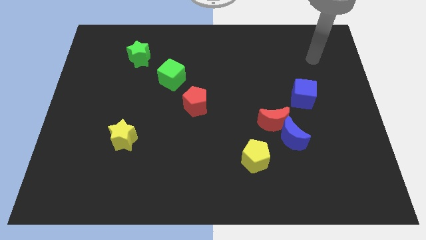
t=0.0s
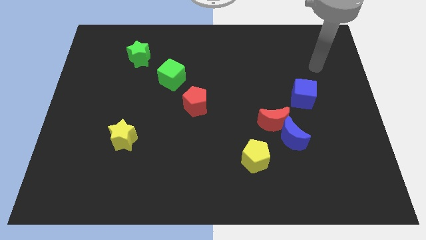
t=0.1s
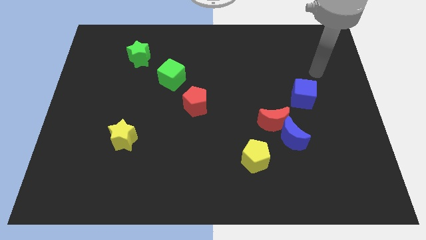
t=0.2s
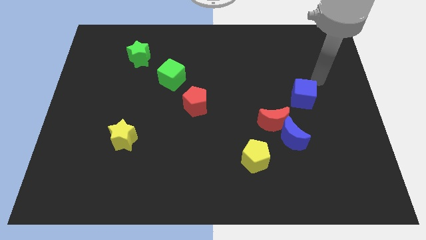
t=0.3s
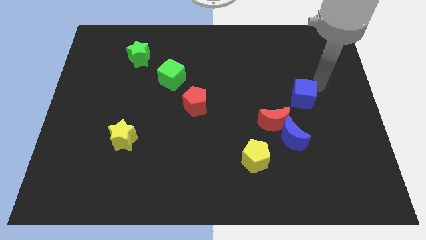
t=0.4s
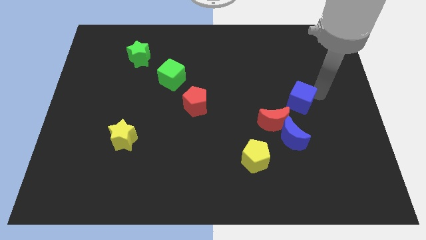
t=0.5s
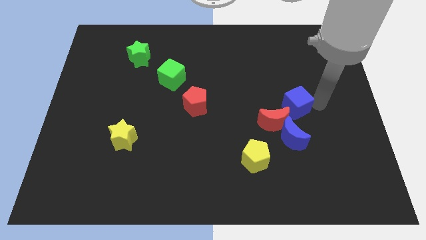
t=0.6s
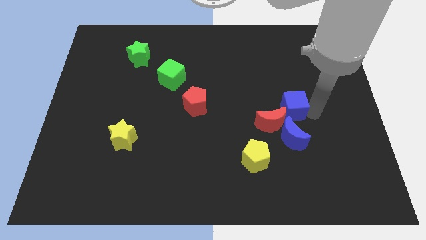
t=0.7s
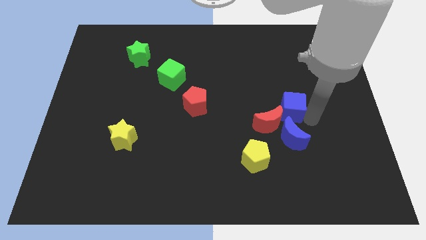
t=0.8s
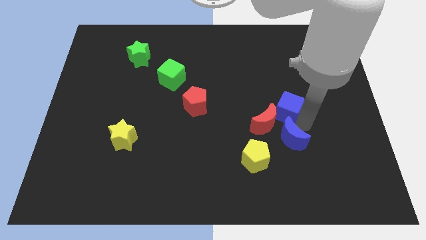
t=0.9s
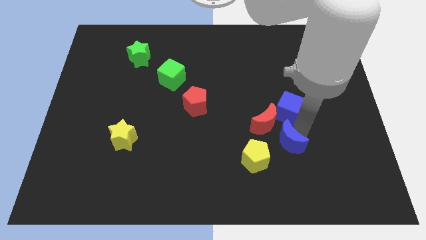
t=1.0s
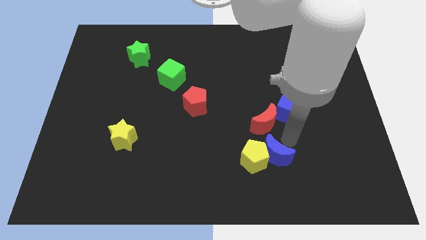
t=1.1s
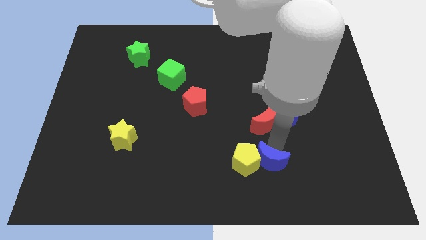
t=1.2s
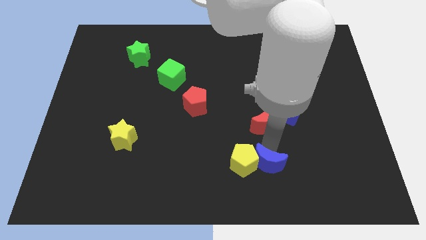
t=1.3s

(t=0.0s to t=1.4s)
move the red moon away from the blue moon

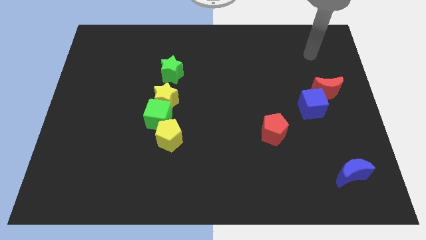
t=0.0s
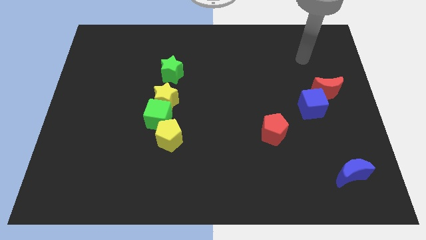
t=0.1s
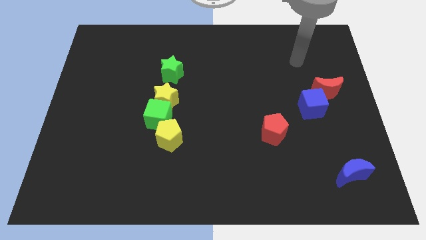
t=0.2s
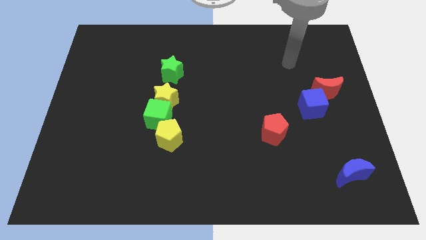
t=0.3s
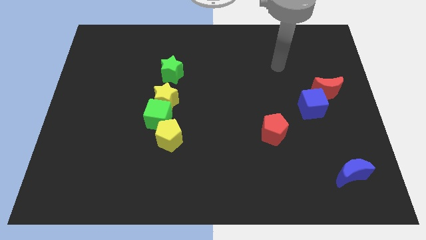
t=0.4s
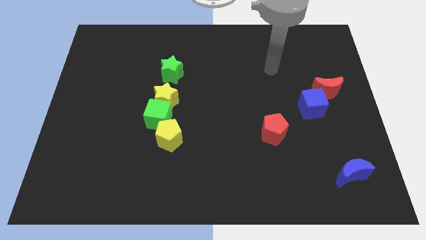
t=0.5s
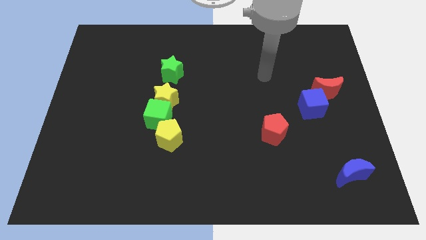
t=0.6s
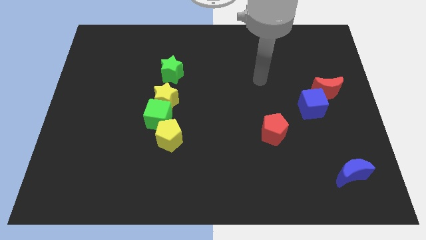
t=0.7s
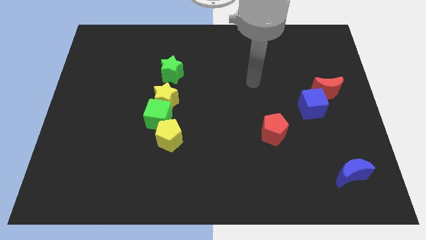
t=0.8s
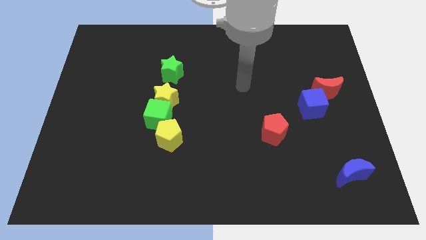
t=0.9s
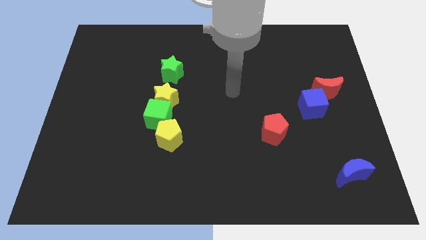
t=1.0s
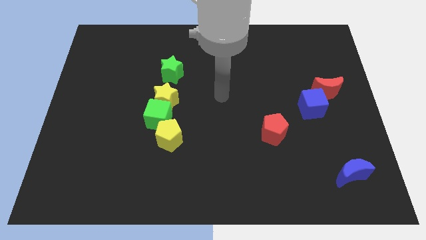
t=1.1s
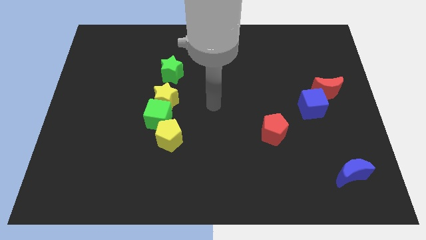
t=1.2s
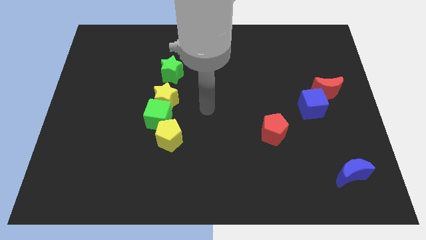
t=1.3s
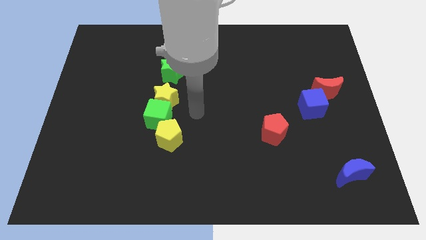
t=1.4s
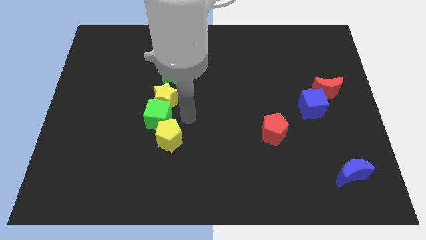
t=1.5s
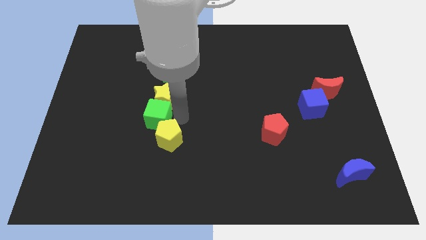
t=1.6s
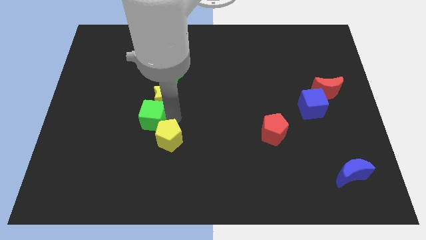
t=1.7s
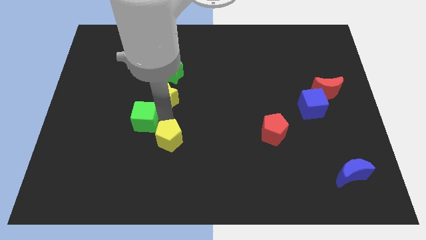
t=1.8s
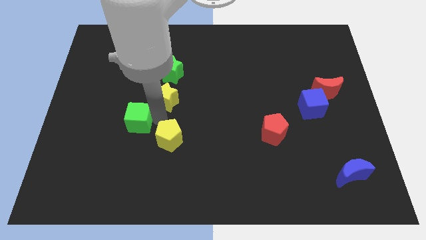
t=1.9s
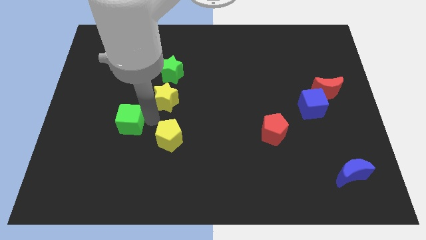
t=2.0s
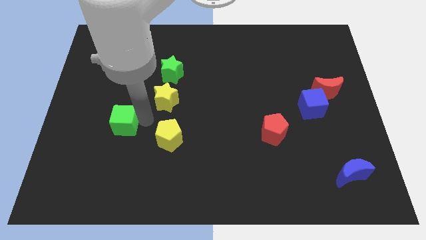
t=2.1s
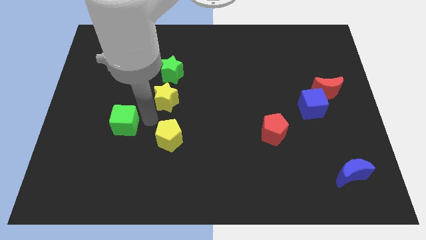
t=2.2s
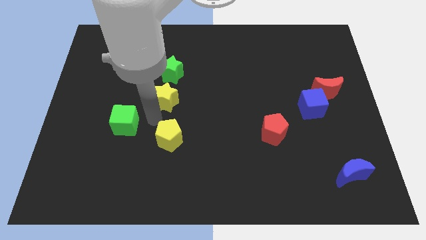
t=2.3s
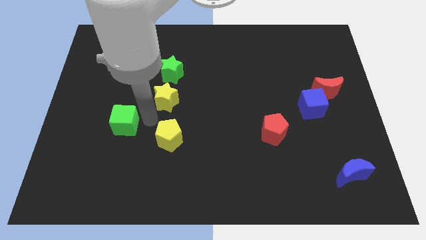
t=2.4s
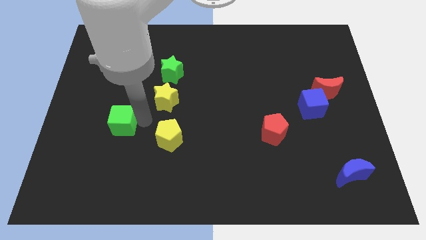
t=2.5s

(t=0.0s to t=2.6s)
move the green cube away from the yellow star and yellow pentagon

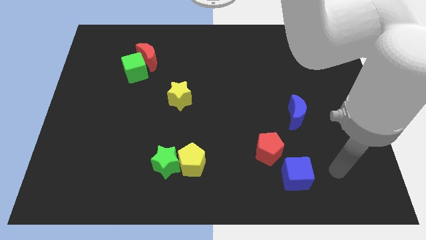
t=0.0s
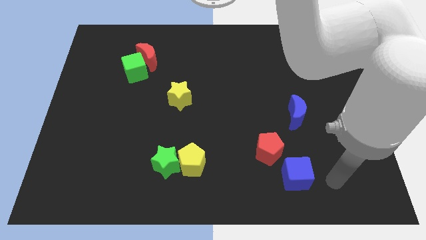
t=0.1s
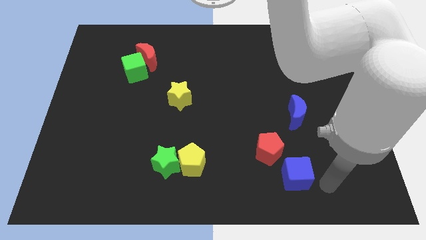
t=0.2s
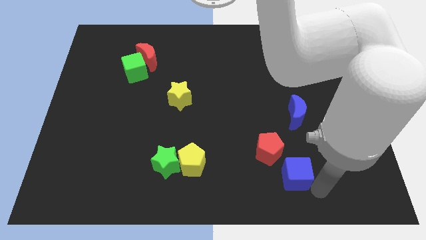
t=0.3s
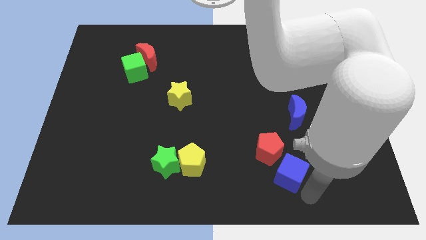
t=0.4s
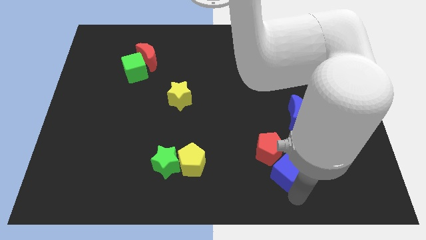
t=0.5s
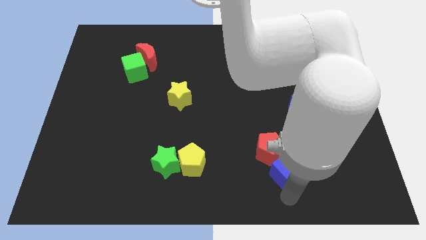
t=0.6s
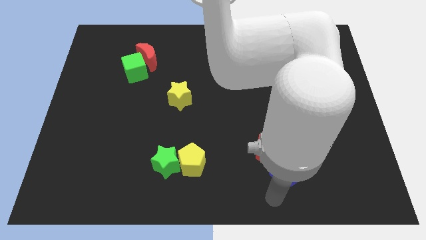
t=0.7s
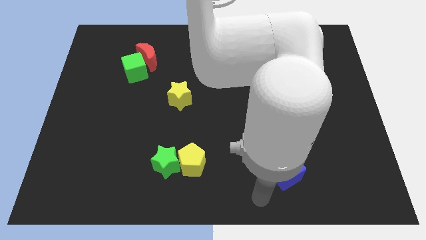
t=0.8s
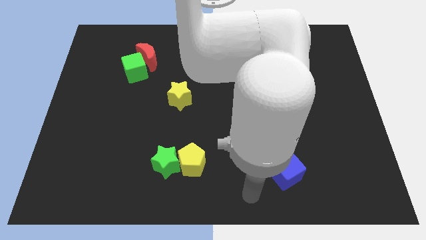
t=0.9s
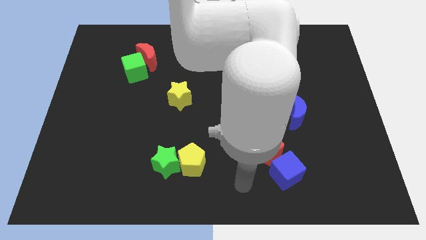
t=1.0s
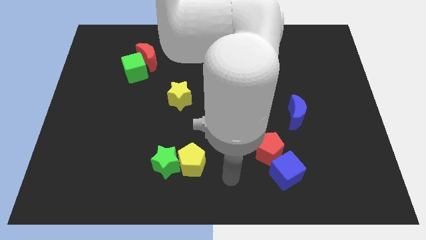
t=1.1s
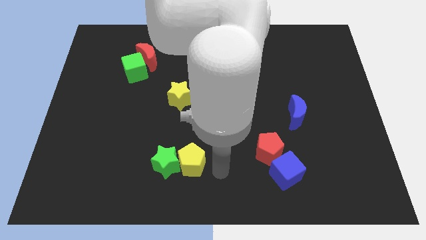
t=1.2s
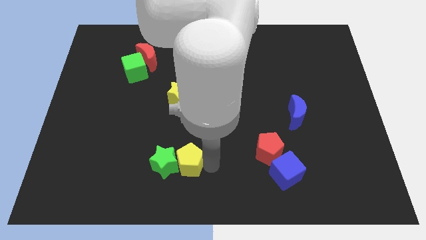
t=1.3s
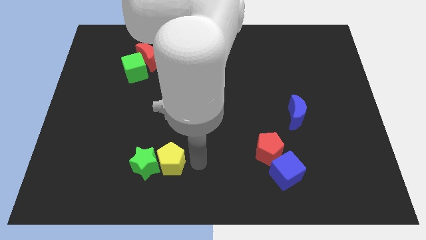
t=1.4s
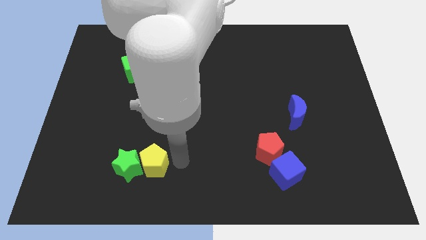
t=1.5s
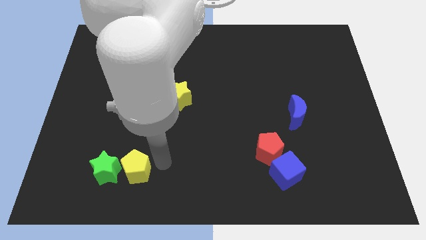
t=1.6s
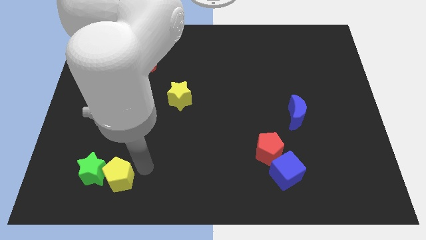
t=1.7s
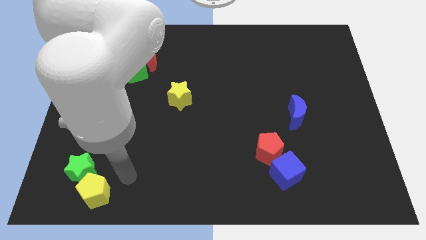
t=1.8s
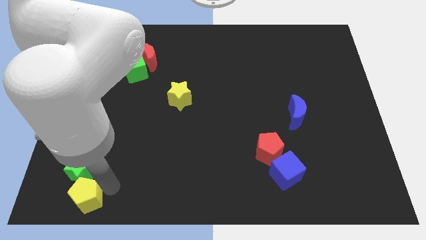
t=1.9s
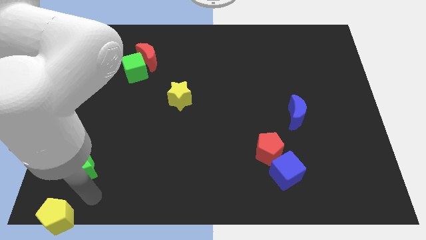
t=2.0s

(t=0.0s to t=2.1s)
move the green star away from the yellow pentagon

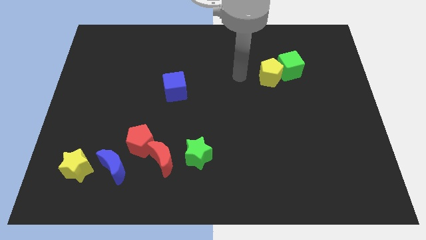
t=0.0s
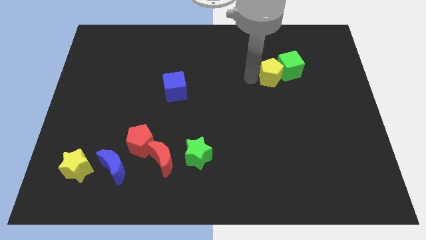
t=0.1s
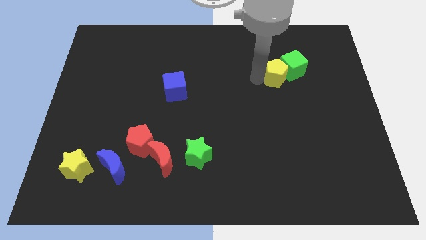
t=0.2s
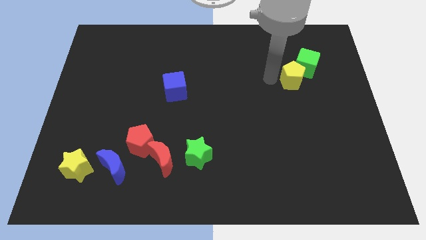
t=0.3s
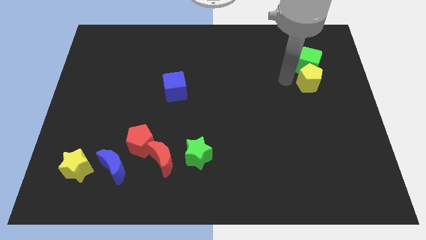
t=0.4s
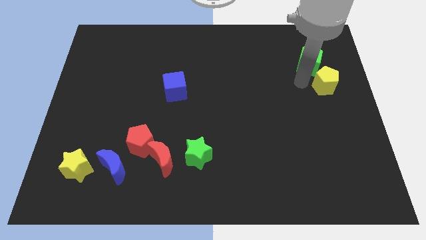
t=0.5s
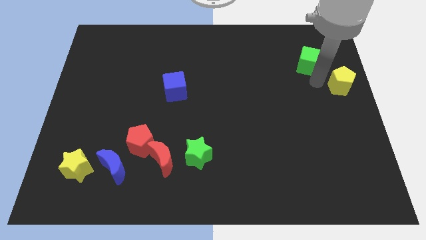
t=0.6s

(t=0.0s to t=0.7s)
pull the green cube apart from the yellow pentagon

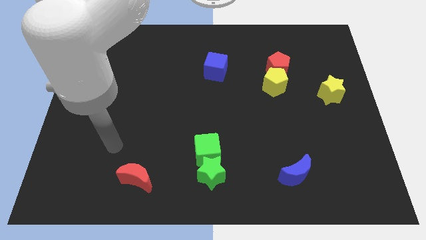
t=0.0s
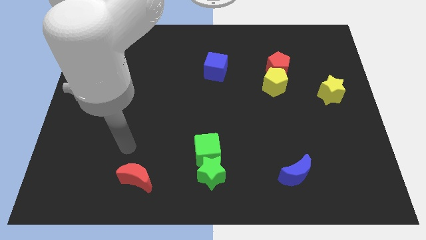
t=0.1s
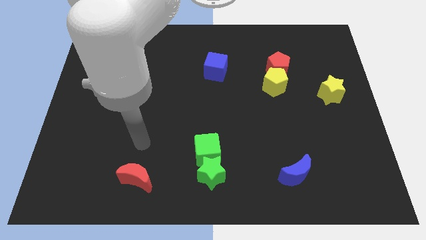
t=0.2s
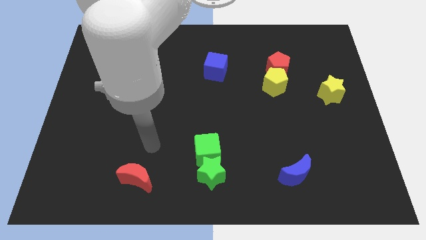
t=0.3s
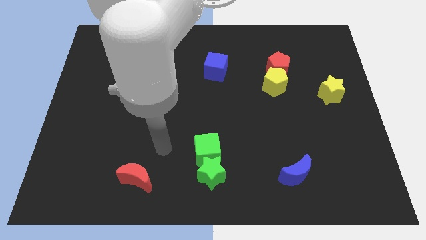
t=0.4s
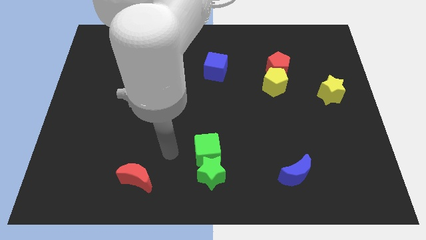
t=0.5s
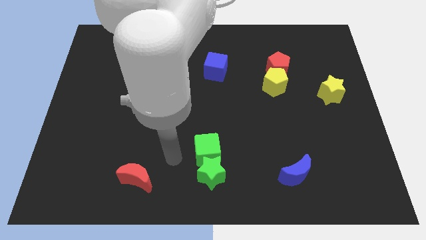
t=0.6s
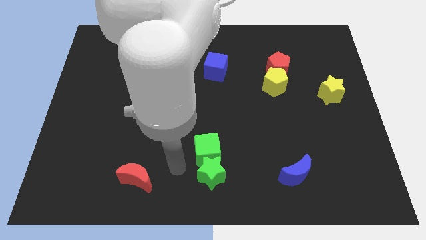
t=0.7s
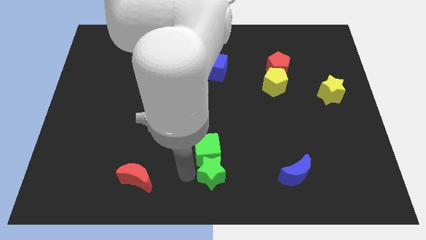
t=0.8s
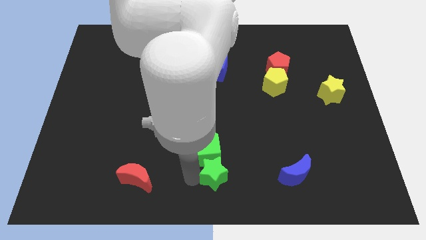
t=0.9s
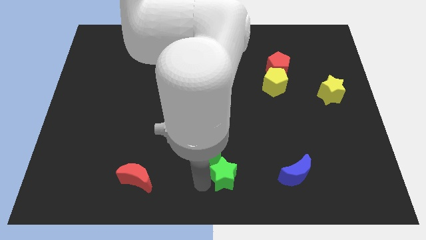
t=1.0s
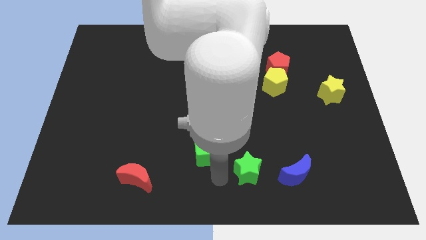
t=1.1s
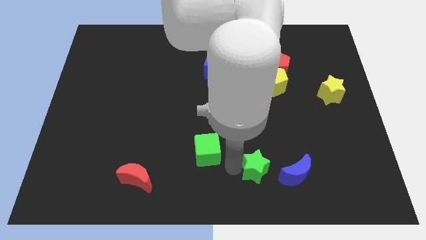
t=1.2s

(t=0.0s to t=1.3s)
move the green cube away from the green star

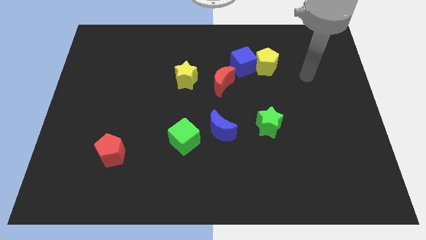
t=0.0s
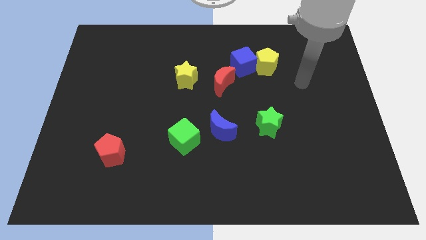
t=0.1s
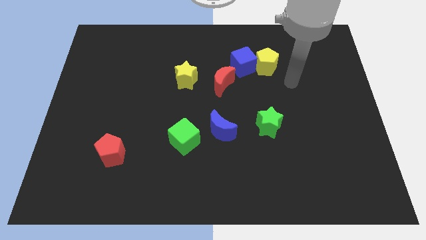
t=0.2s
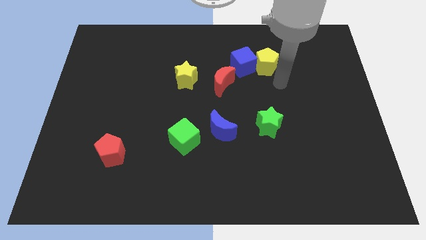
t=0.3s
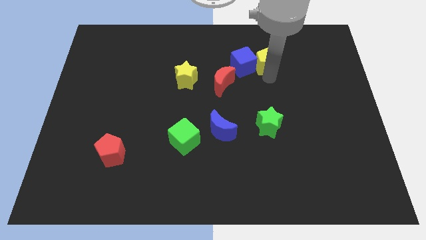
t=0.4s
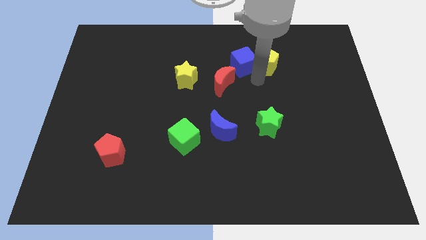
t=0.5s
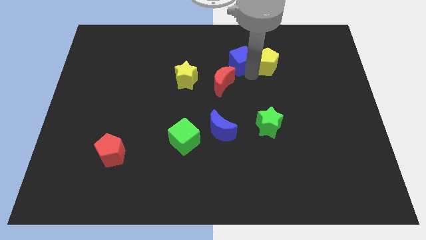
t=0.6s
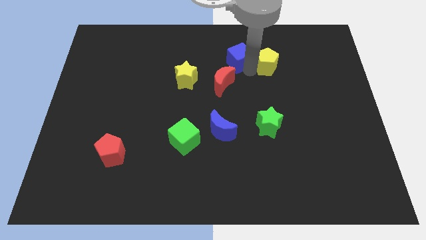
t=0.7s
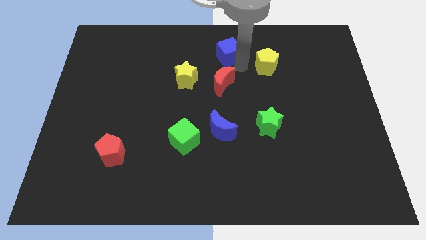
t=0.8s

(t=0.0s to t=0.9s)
pull the yellow pentagon apart from the blue cube

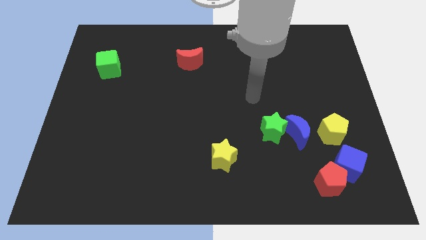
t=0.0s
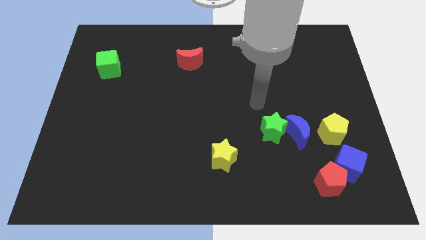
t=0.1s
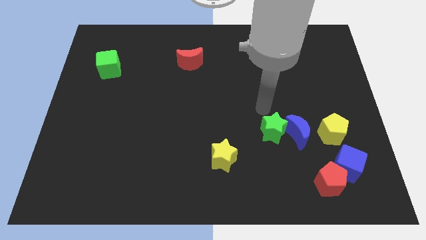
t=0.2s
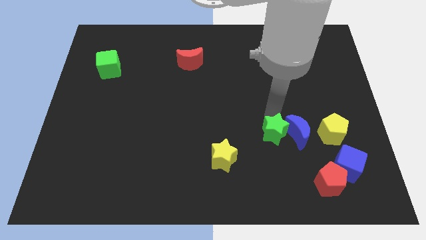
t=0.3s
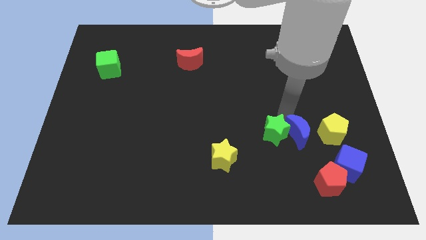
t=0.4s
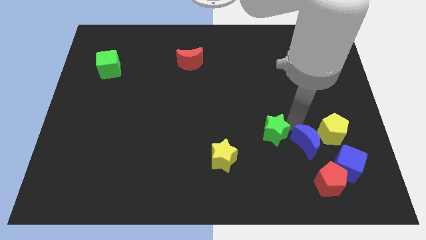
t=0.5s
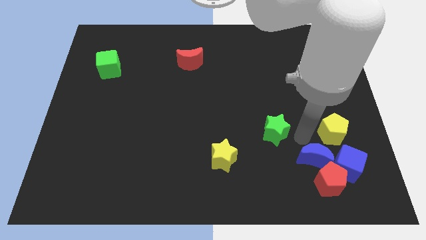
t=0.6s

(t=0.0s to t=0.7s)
move the green star away from the blue moon
